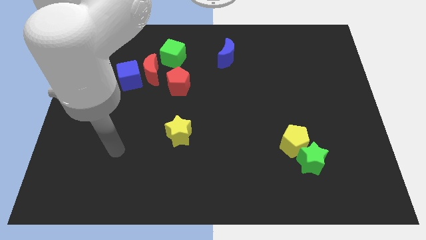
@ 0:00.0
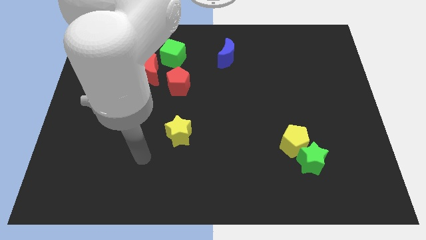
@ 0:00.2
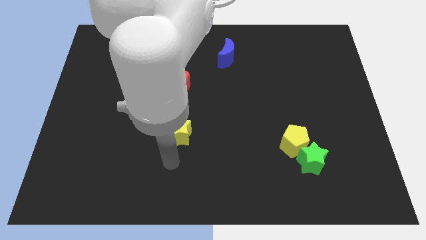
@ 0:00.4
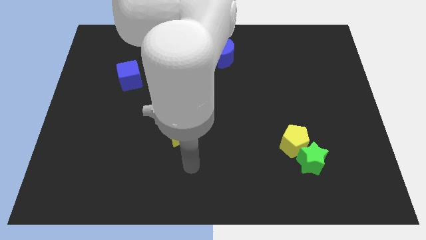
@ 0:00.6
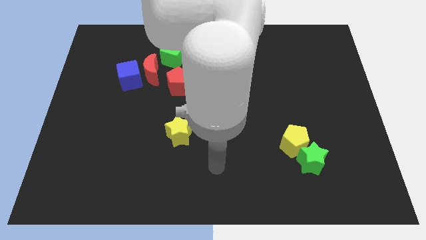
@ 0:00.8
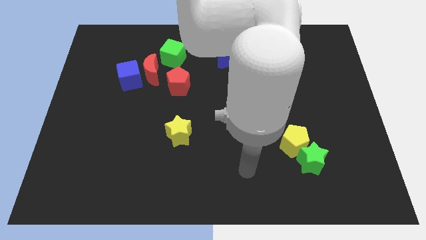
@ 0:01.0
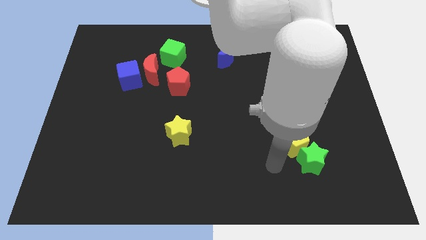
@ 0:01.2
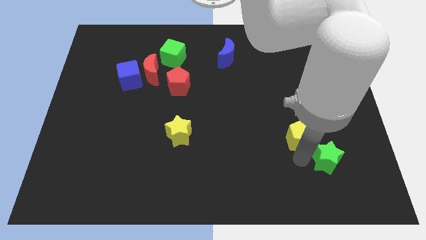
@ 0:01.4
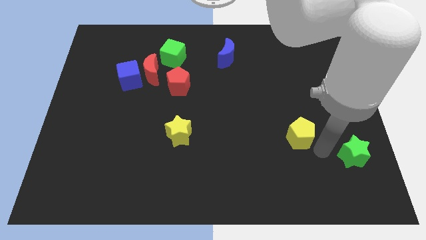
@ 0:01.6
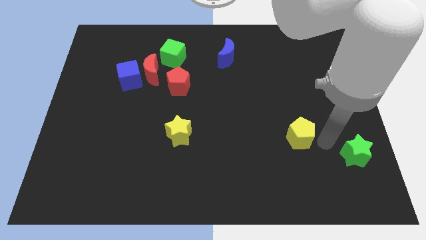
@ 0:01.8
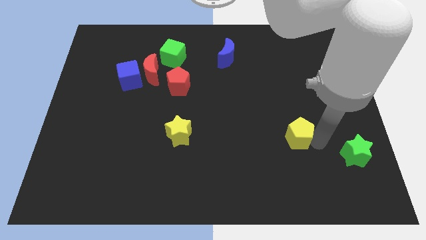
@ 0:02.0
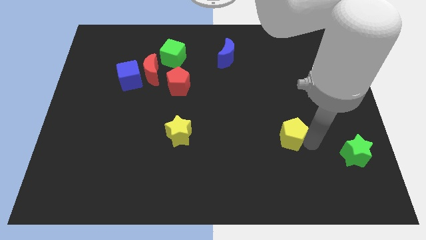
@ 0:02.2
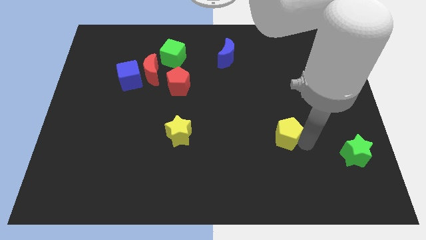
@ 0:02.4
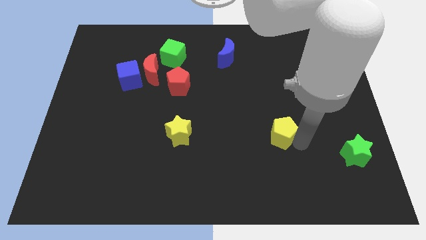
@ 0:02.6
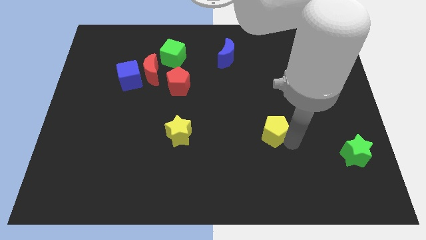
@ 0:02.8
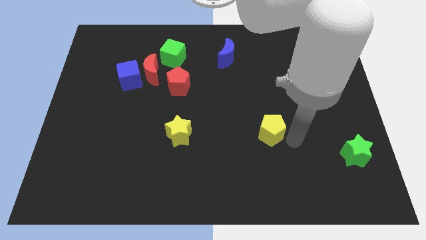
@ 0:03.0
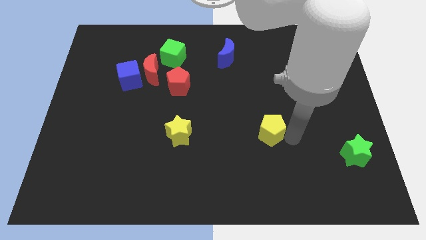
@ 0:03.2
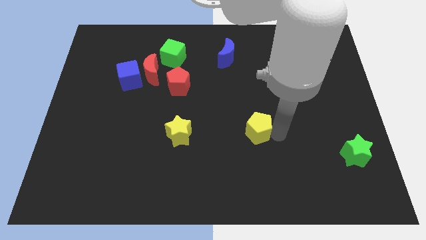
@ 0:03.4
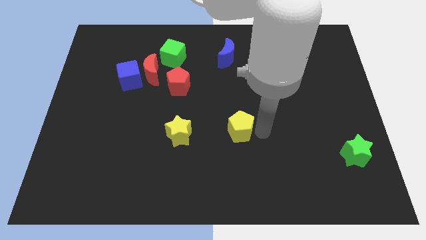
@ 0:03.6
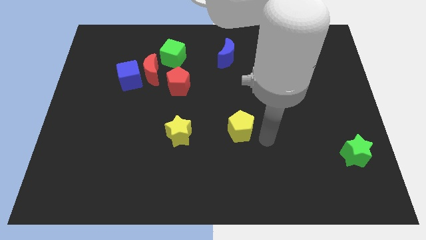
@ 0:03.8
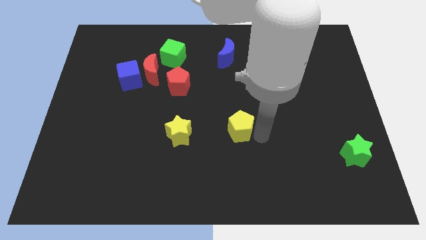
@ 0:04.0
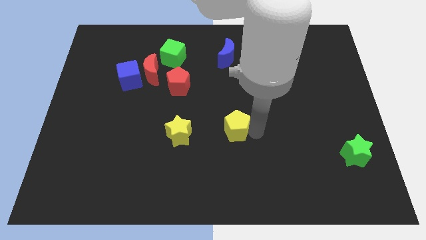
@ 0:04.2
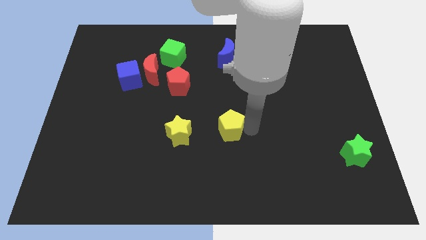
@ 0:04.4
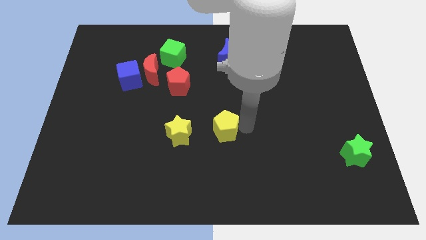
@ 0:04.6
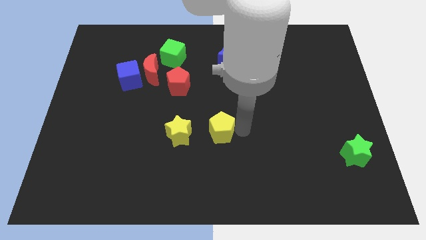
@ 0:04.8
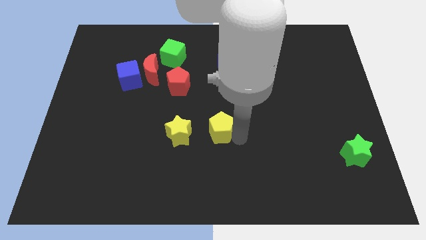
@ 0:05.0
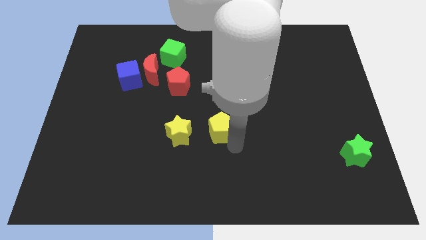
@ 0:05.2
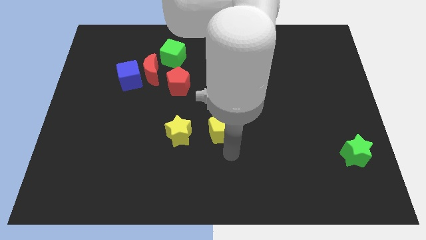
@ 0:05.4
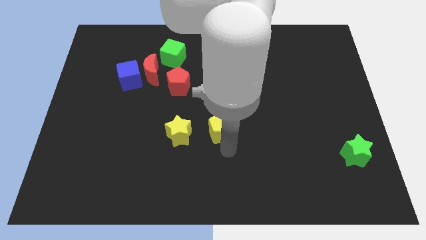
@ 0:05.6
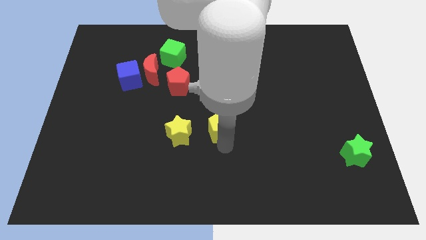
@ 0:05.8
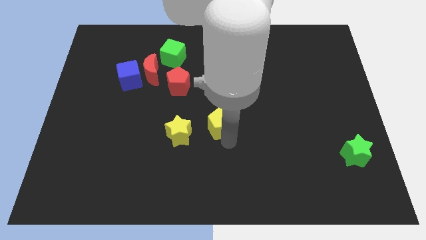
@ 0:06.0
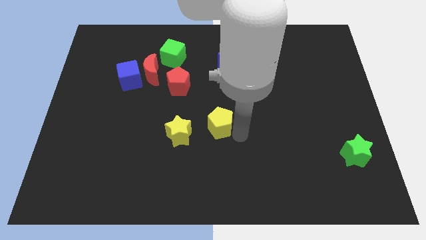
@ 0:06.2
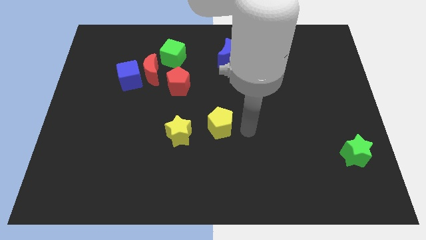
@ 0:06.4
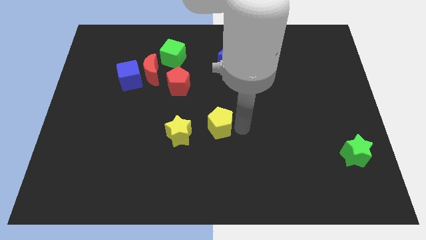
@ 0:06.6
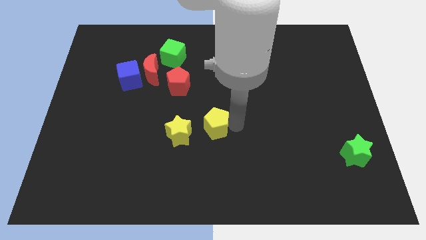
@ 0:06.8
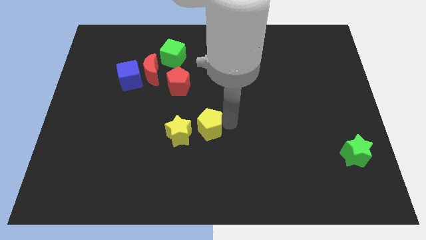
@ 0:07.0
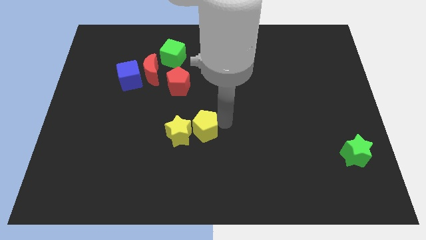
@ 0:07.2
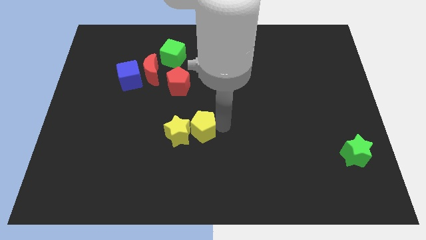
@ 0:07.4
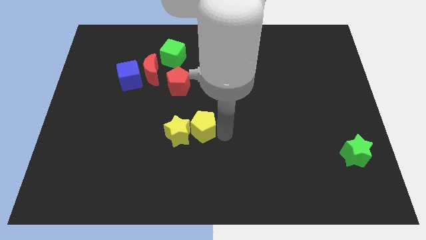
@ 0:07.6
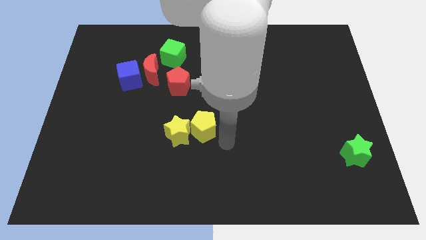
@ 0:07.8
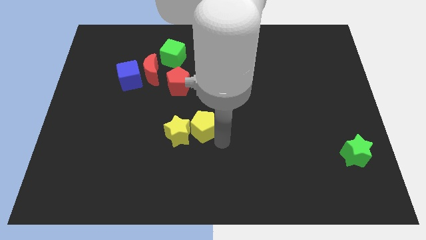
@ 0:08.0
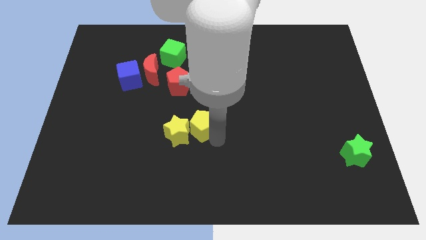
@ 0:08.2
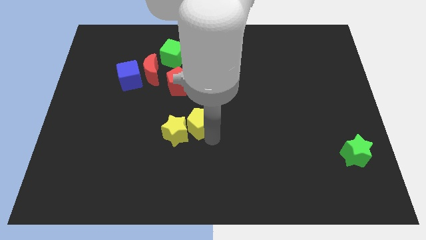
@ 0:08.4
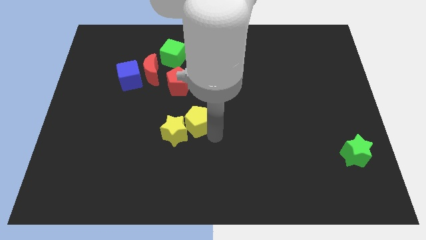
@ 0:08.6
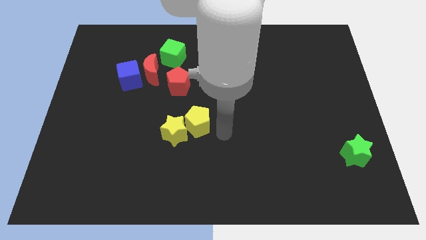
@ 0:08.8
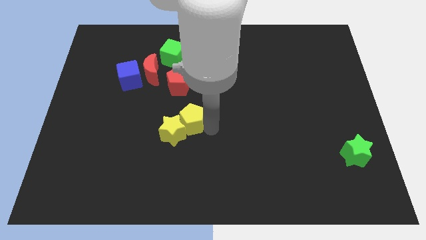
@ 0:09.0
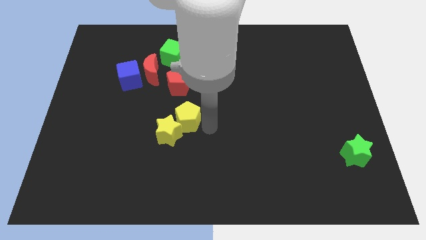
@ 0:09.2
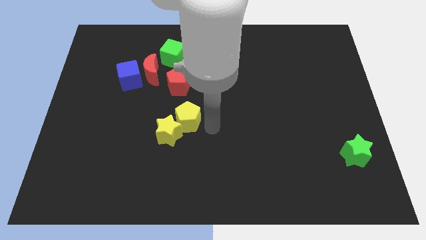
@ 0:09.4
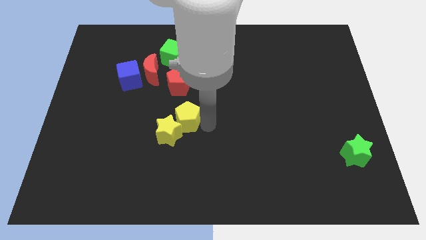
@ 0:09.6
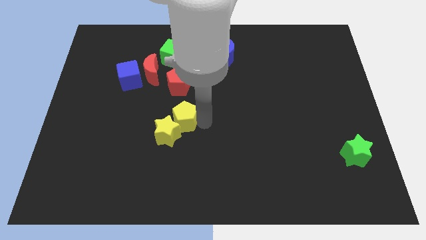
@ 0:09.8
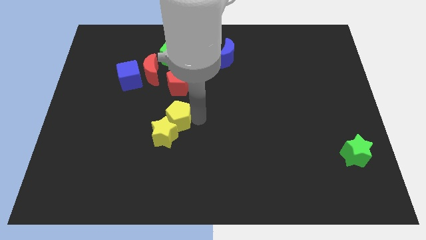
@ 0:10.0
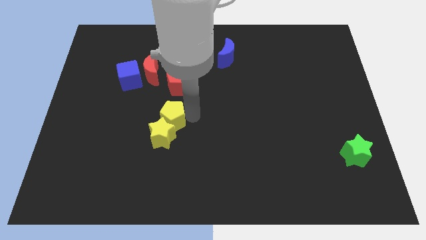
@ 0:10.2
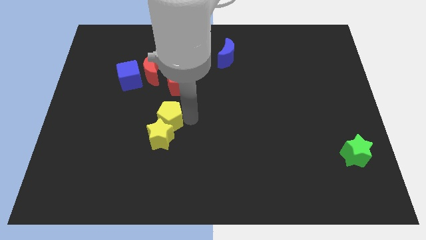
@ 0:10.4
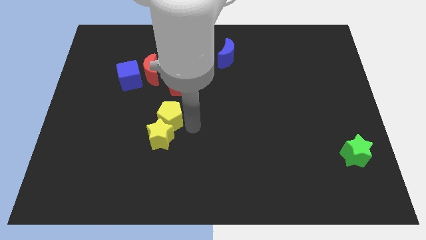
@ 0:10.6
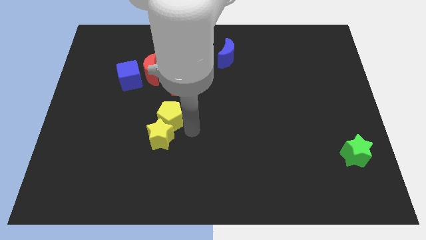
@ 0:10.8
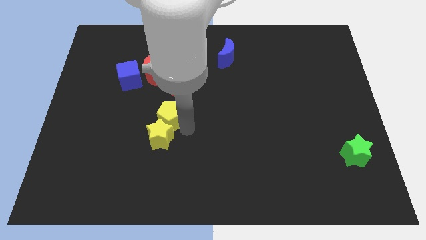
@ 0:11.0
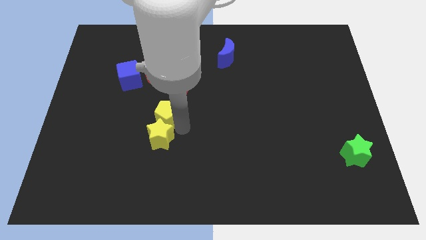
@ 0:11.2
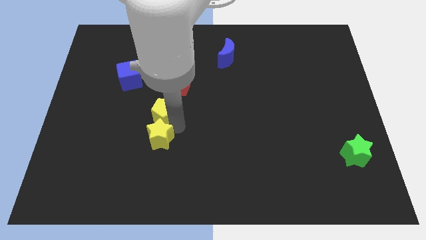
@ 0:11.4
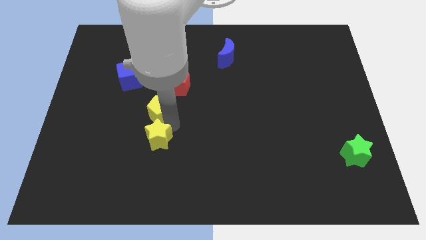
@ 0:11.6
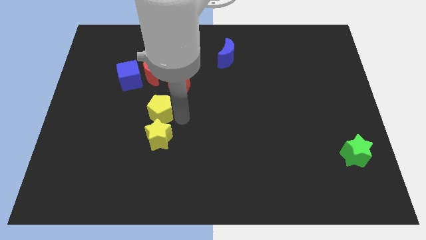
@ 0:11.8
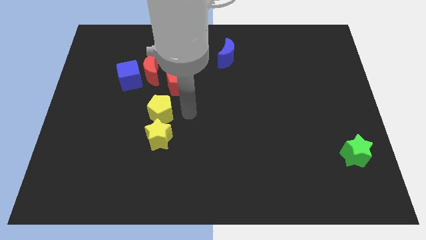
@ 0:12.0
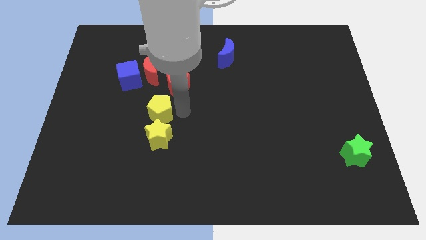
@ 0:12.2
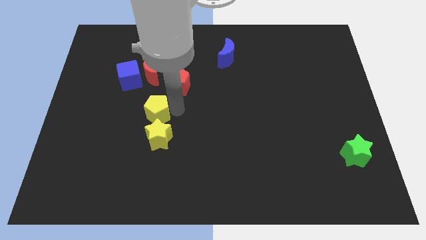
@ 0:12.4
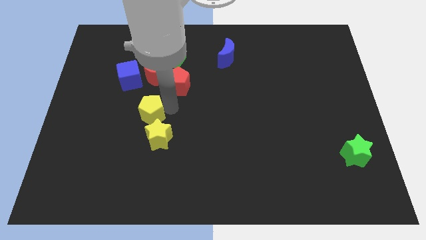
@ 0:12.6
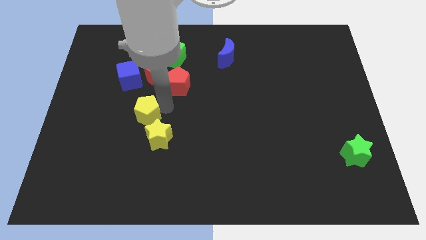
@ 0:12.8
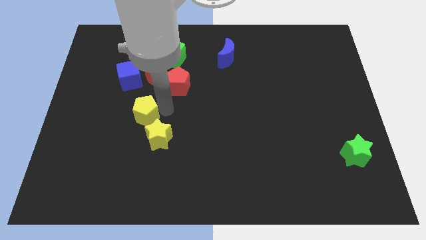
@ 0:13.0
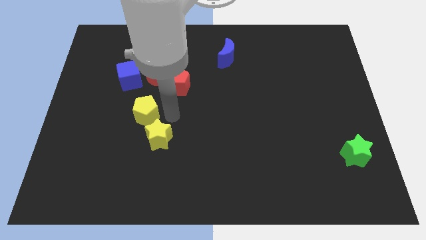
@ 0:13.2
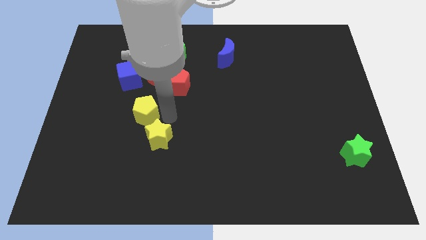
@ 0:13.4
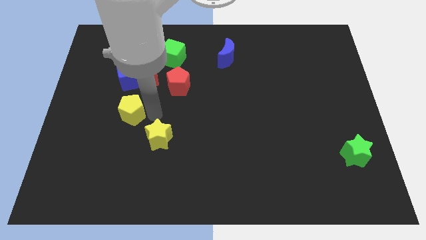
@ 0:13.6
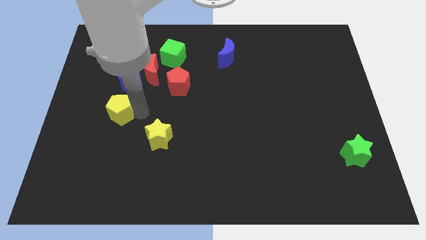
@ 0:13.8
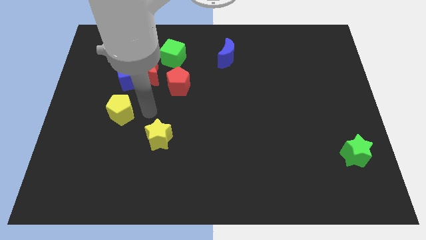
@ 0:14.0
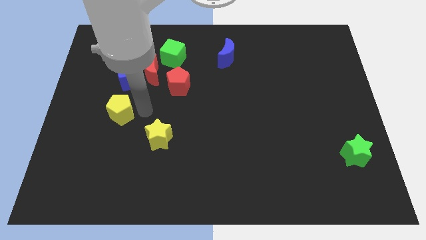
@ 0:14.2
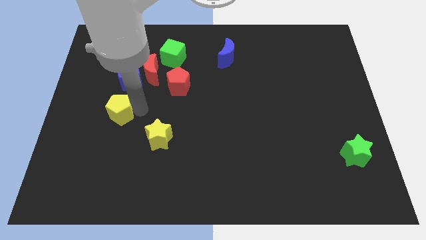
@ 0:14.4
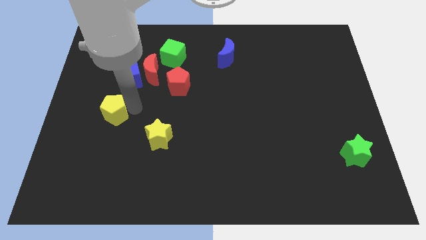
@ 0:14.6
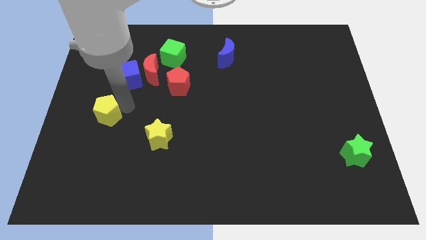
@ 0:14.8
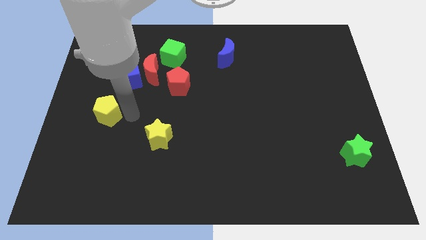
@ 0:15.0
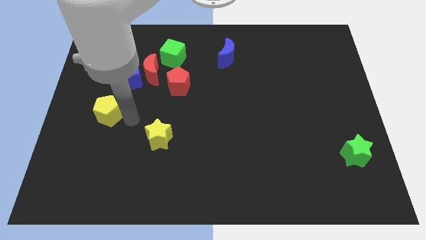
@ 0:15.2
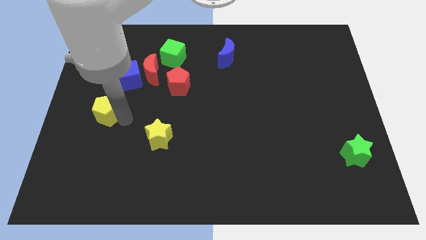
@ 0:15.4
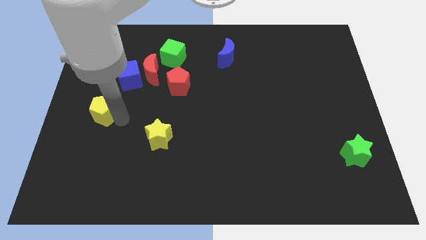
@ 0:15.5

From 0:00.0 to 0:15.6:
slide the yellow pentagon to the left side
